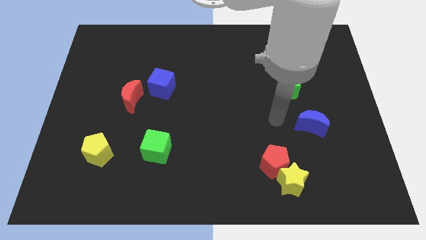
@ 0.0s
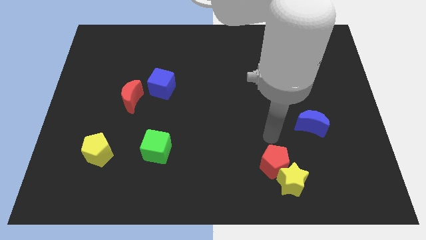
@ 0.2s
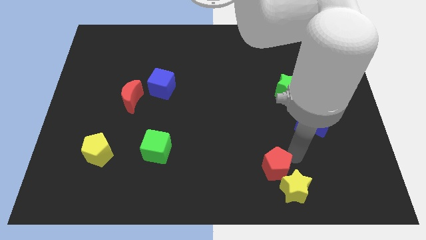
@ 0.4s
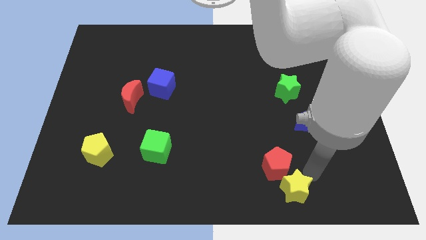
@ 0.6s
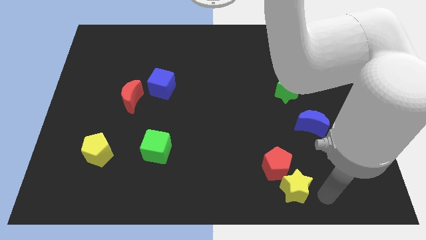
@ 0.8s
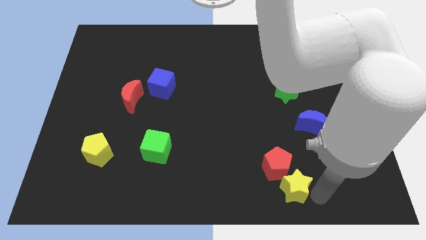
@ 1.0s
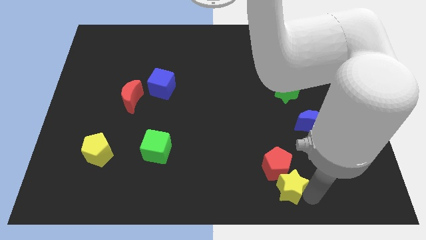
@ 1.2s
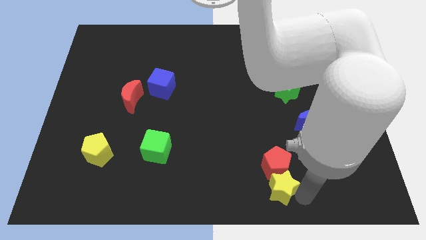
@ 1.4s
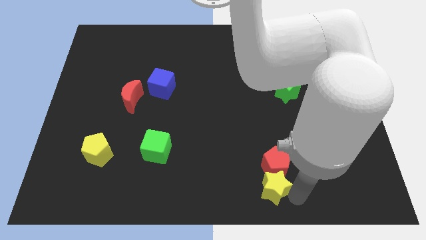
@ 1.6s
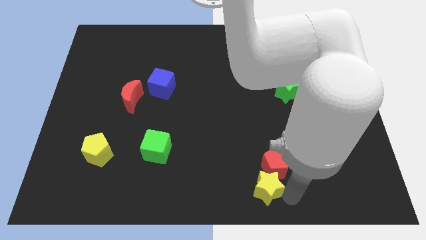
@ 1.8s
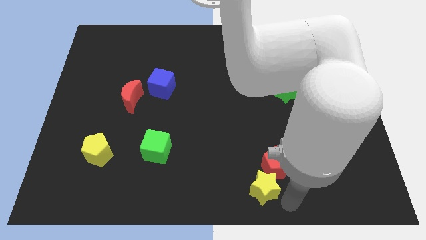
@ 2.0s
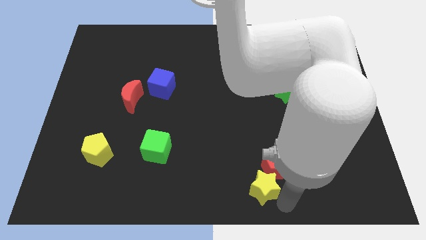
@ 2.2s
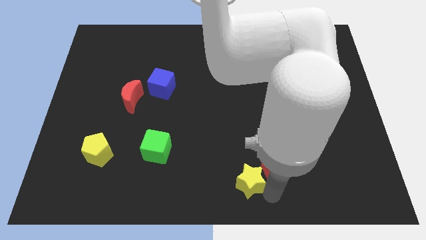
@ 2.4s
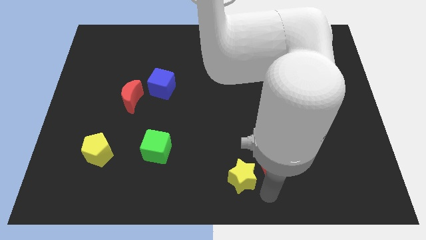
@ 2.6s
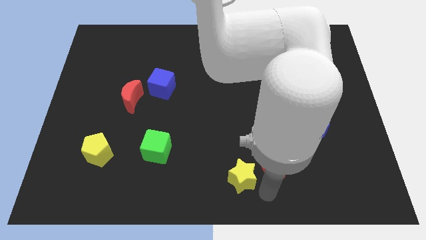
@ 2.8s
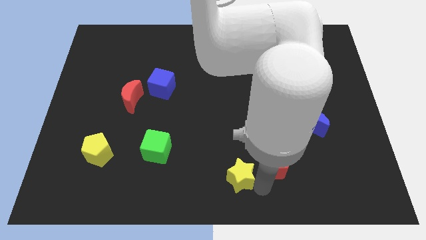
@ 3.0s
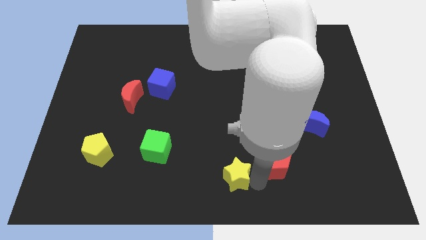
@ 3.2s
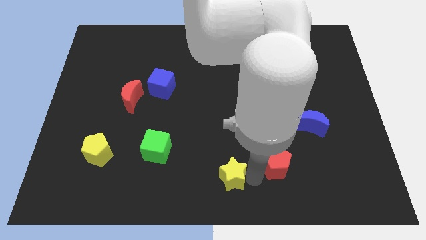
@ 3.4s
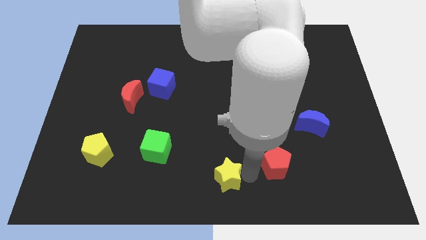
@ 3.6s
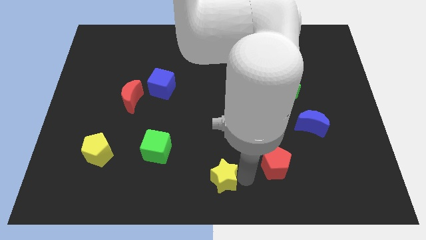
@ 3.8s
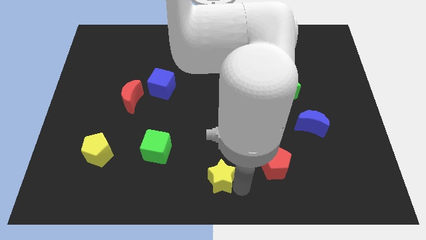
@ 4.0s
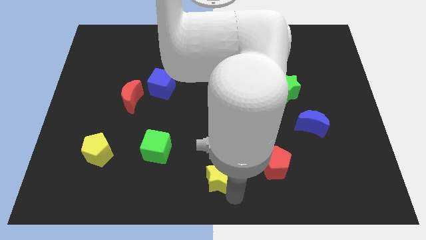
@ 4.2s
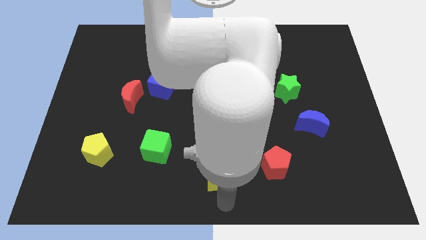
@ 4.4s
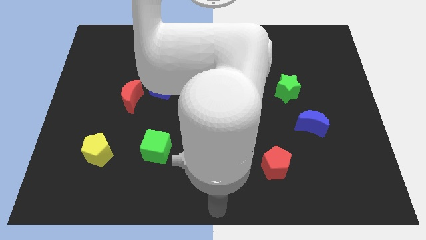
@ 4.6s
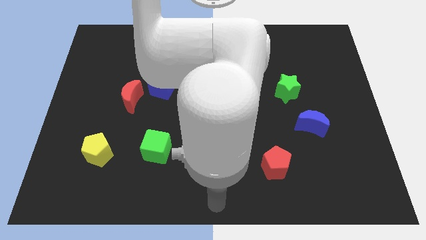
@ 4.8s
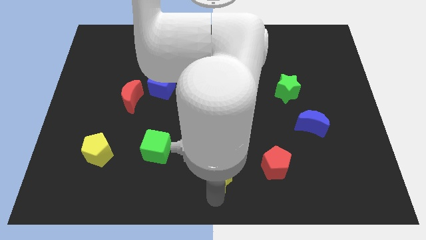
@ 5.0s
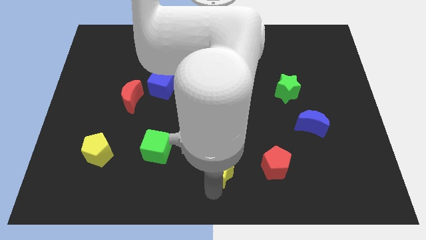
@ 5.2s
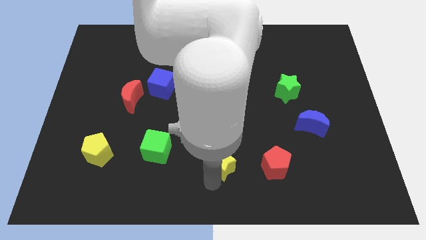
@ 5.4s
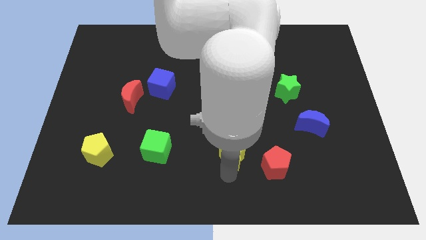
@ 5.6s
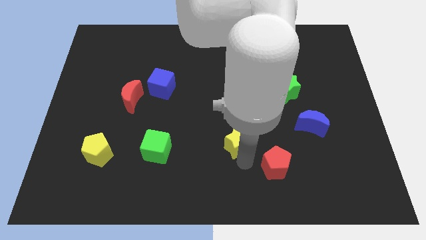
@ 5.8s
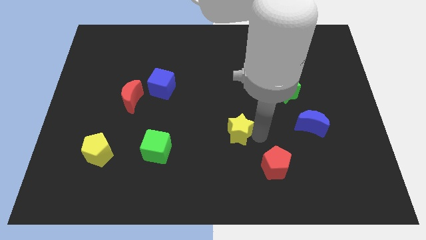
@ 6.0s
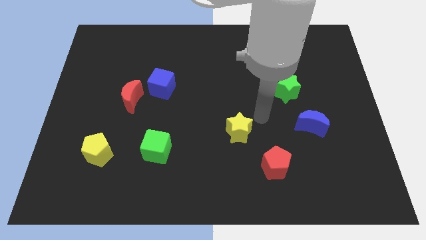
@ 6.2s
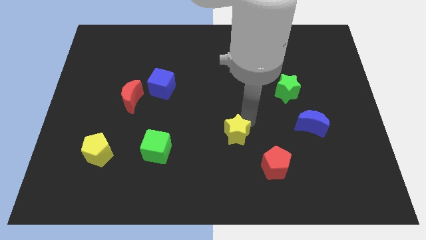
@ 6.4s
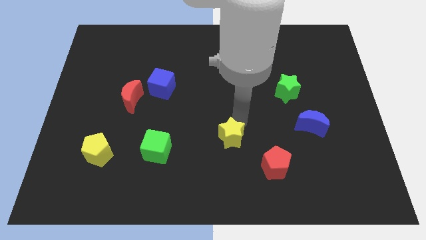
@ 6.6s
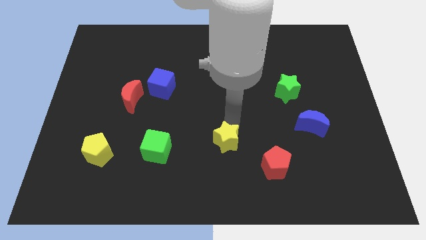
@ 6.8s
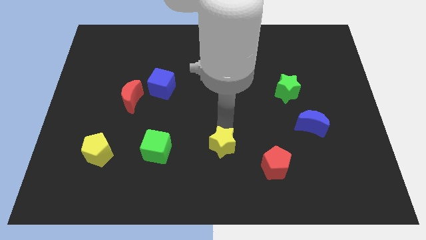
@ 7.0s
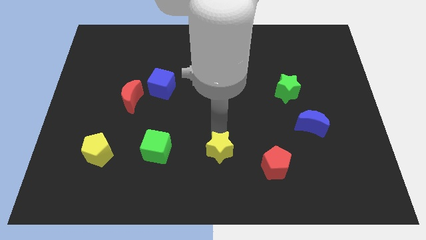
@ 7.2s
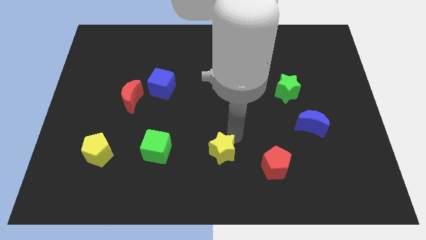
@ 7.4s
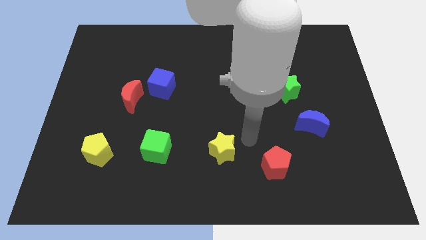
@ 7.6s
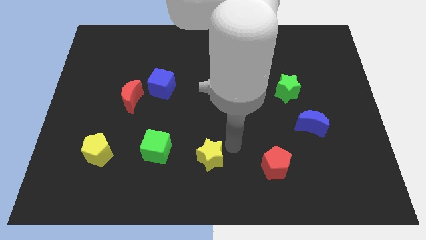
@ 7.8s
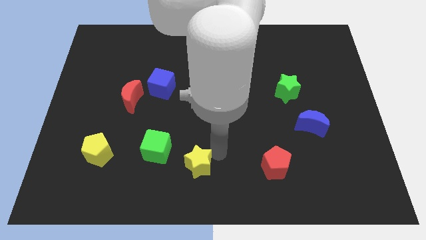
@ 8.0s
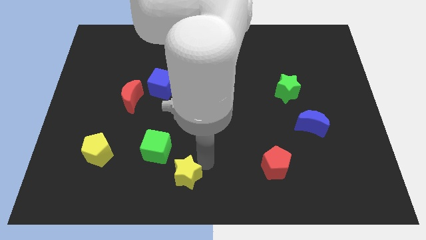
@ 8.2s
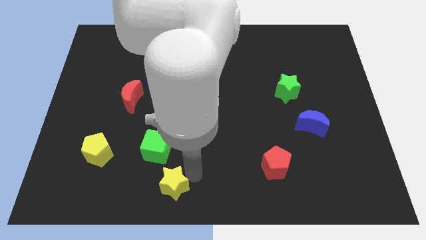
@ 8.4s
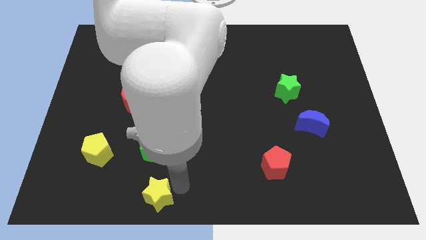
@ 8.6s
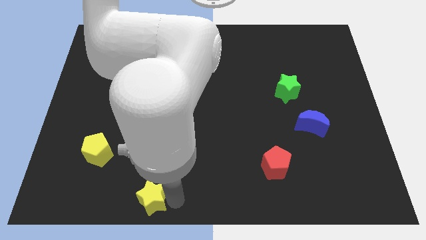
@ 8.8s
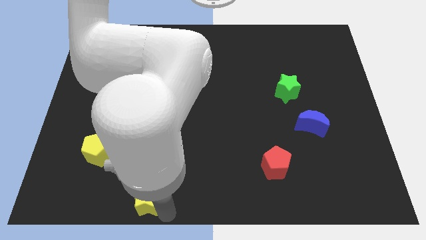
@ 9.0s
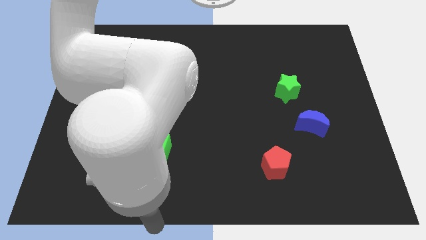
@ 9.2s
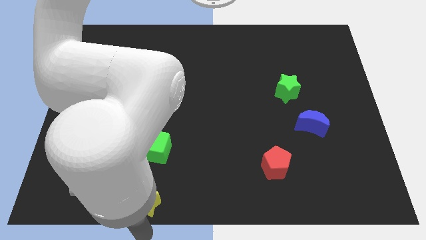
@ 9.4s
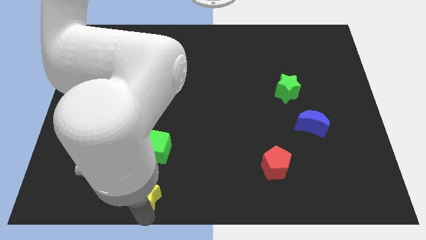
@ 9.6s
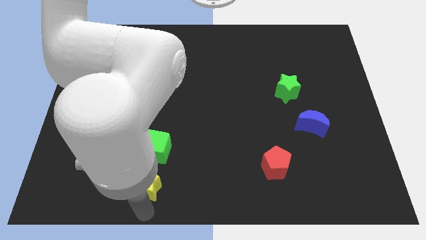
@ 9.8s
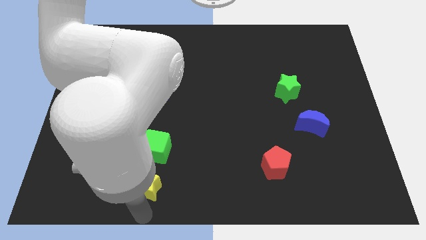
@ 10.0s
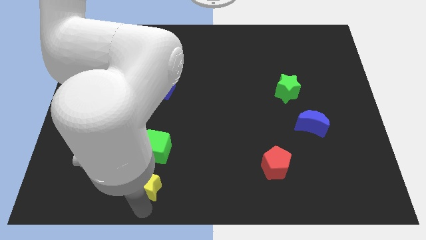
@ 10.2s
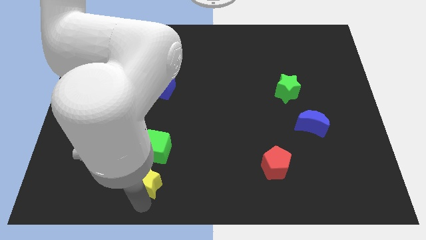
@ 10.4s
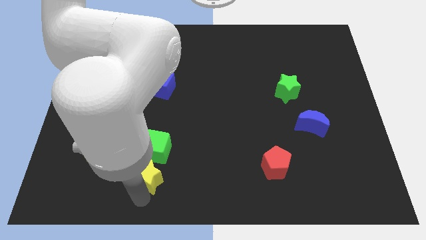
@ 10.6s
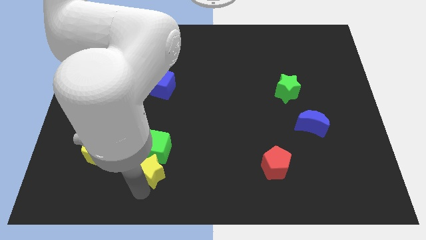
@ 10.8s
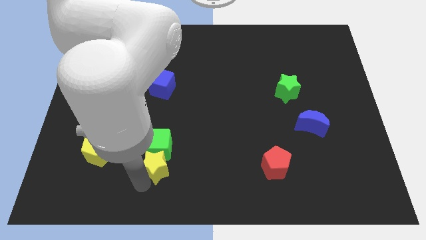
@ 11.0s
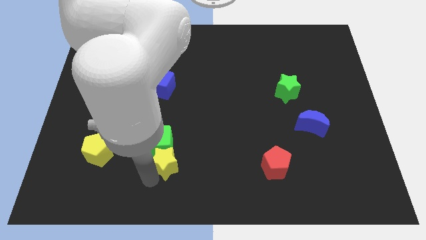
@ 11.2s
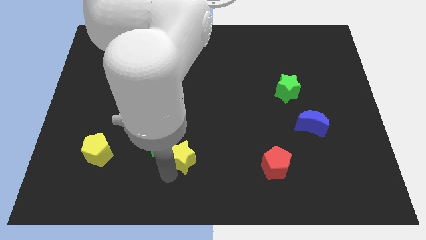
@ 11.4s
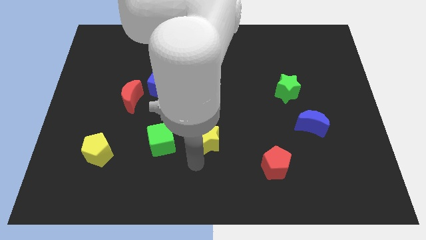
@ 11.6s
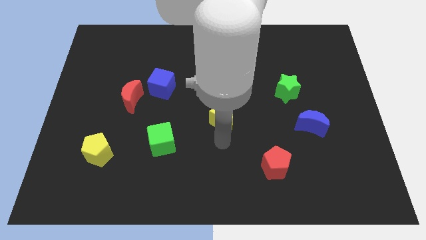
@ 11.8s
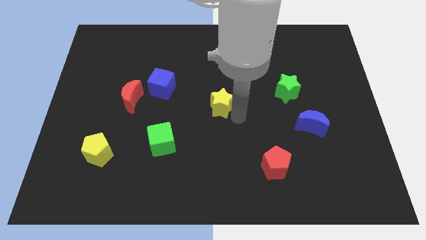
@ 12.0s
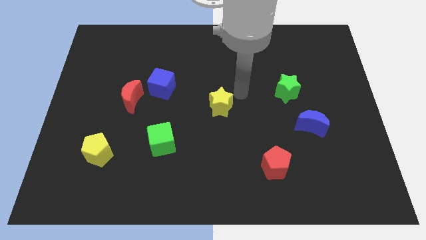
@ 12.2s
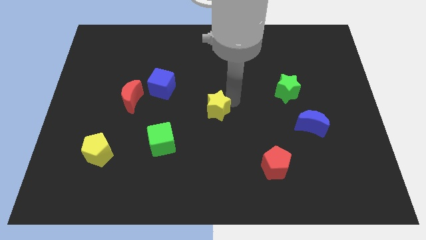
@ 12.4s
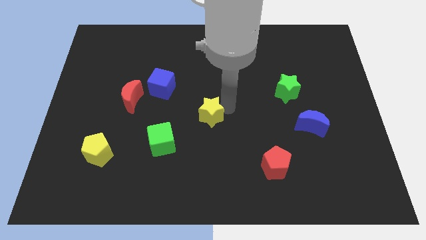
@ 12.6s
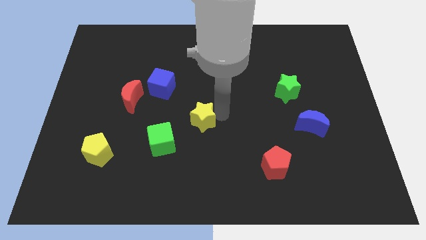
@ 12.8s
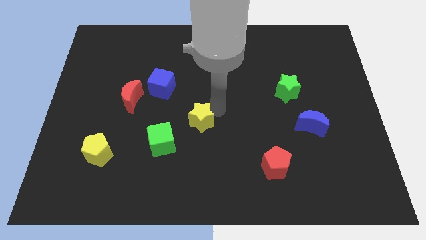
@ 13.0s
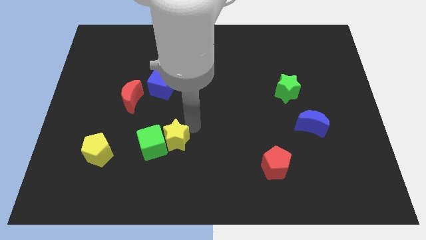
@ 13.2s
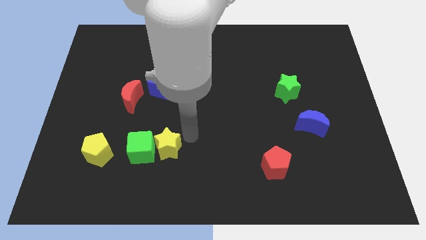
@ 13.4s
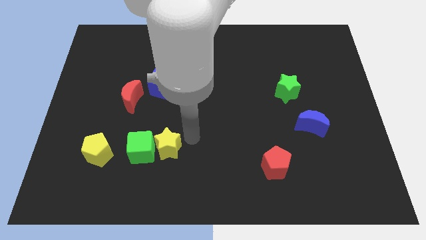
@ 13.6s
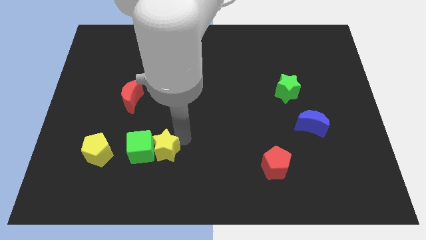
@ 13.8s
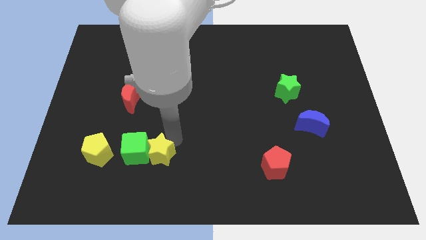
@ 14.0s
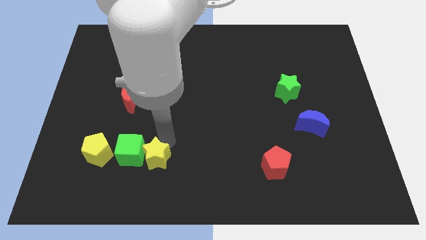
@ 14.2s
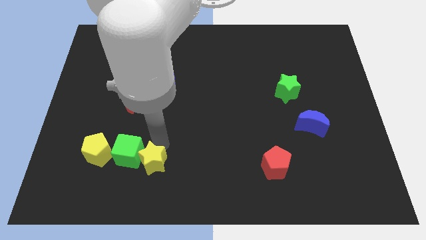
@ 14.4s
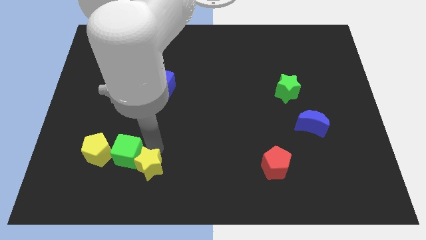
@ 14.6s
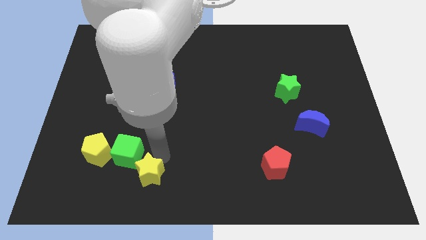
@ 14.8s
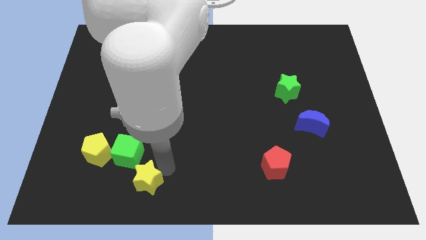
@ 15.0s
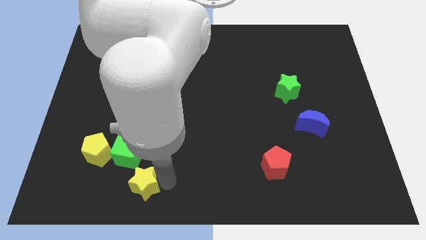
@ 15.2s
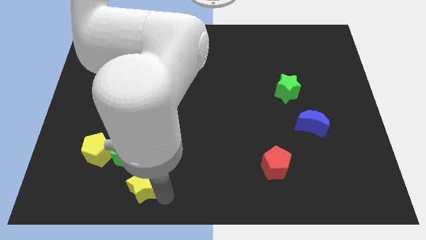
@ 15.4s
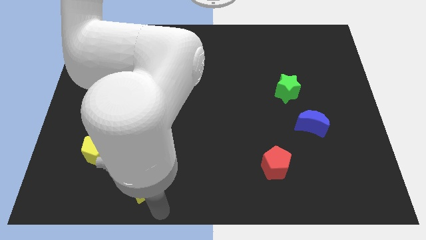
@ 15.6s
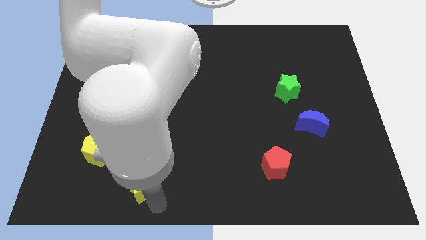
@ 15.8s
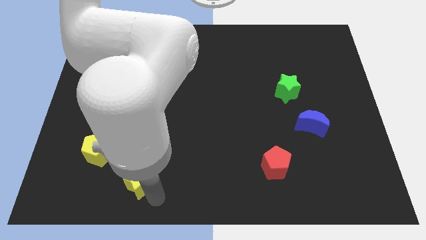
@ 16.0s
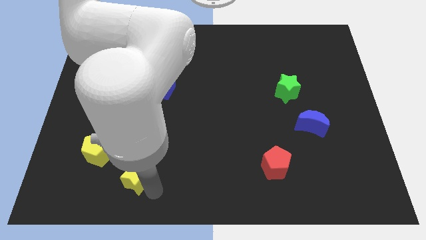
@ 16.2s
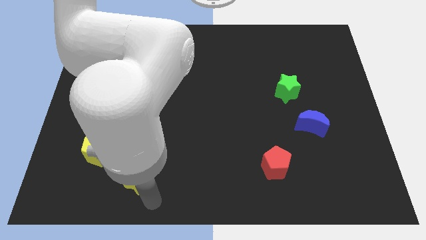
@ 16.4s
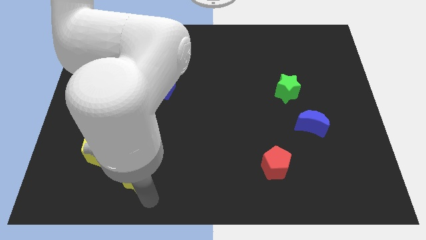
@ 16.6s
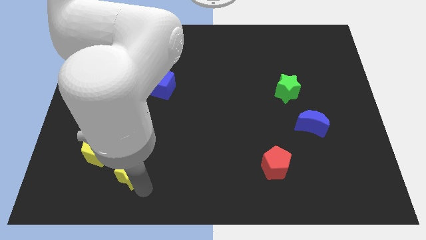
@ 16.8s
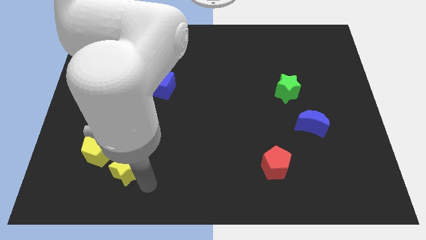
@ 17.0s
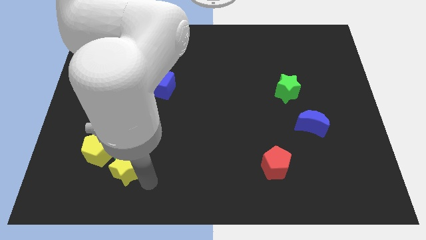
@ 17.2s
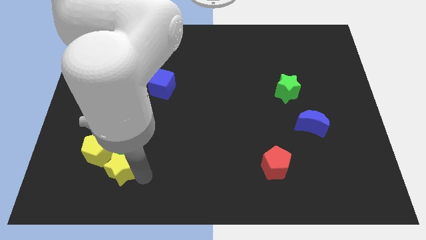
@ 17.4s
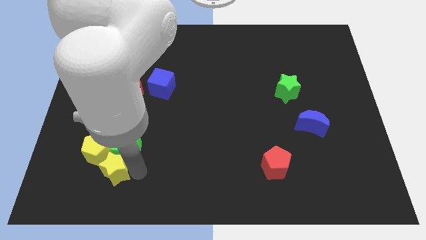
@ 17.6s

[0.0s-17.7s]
put the yellow star close to the yellow pentagon
